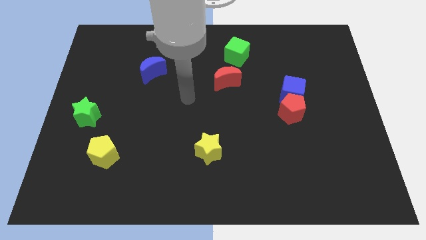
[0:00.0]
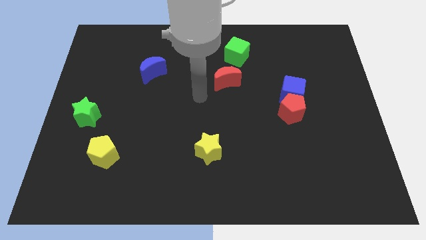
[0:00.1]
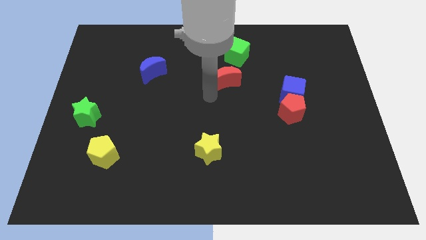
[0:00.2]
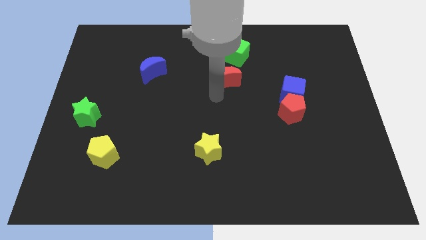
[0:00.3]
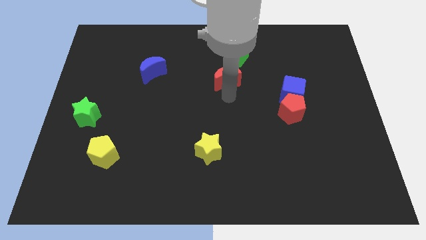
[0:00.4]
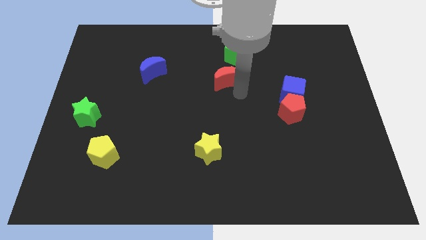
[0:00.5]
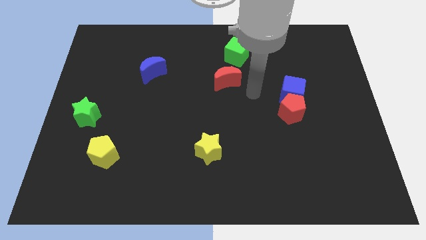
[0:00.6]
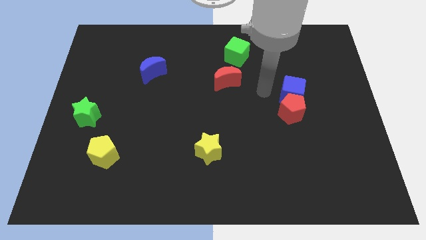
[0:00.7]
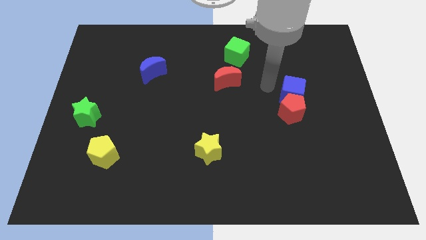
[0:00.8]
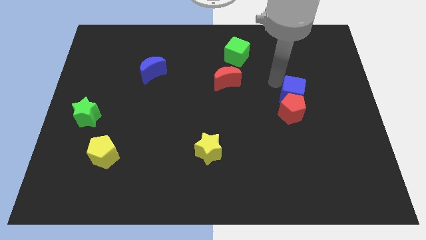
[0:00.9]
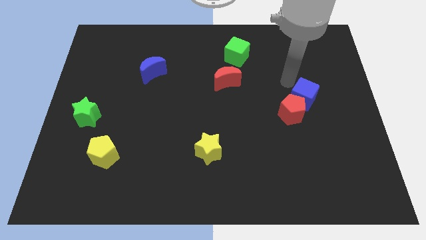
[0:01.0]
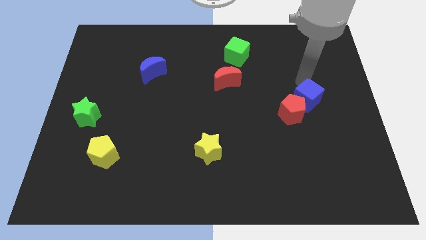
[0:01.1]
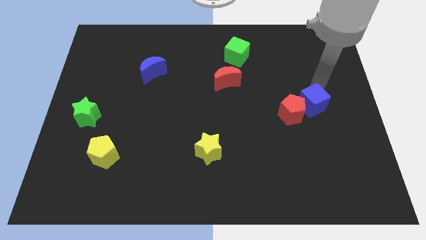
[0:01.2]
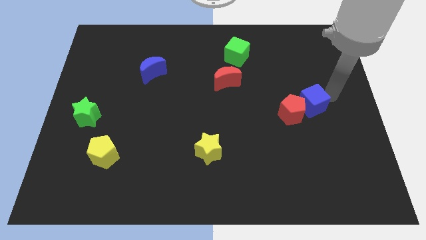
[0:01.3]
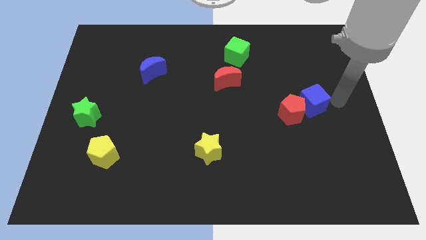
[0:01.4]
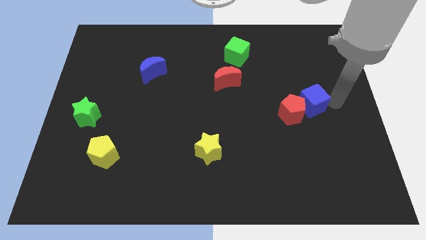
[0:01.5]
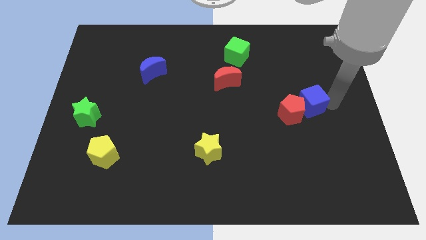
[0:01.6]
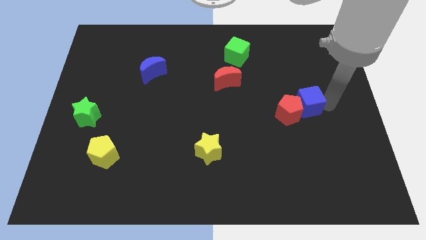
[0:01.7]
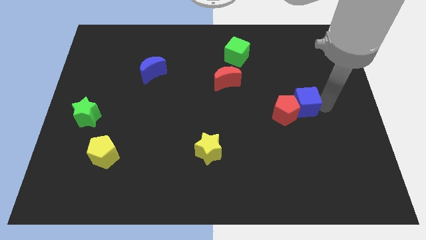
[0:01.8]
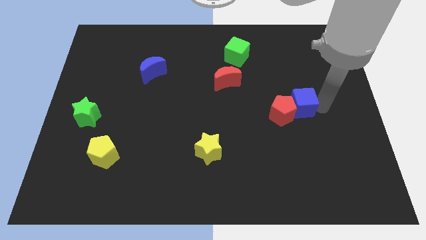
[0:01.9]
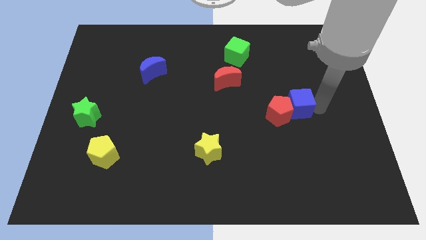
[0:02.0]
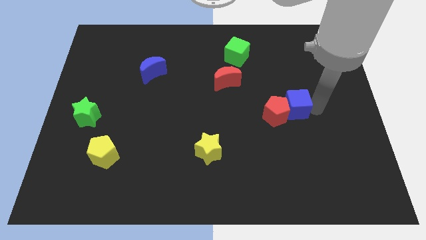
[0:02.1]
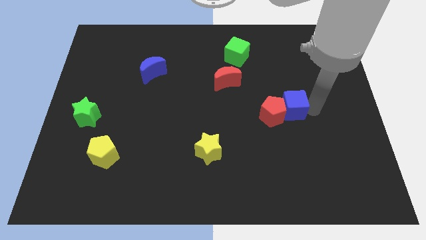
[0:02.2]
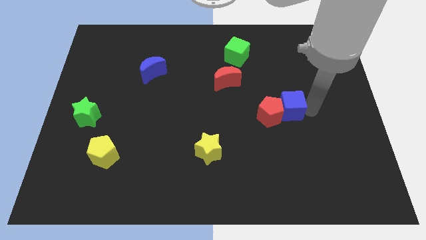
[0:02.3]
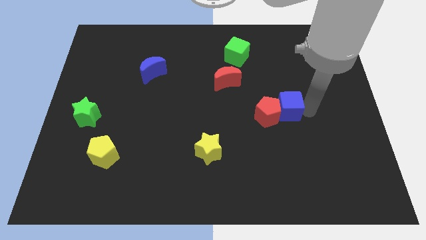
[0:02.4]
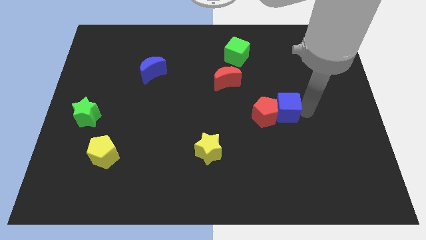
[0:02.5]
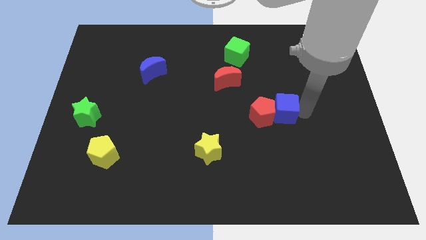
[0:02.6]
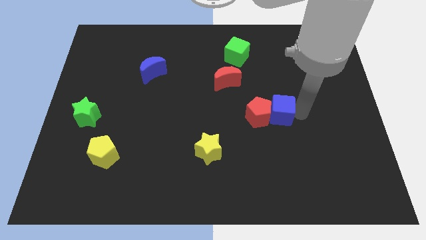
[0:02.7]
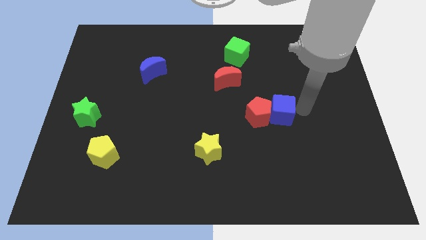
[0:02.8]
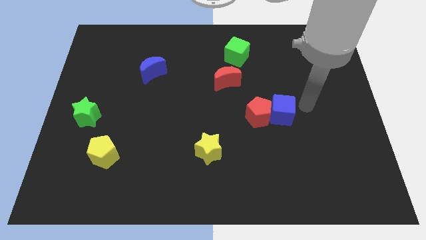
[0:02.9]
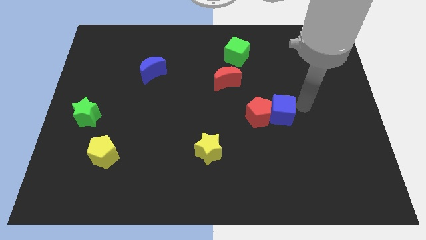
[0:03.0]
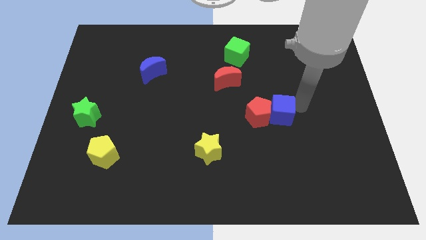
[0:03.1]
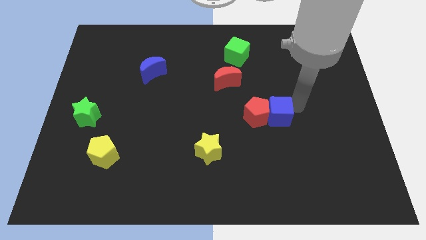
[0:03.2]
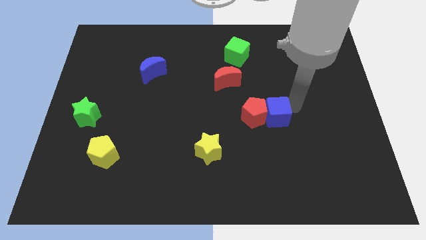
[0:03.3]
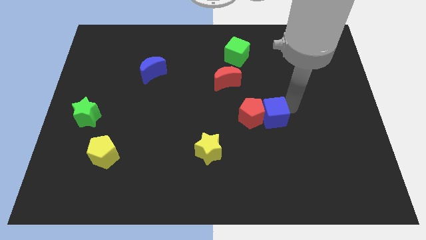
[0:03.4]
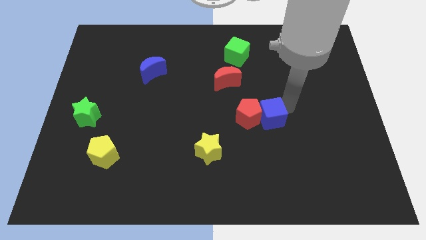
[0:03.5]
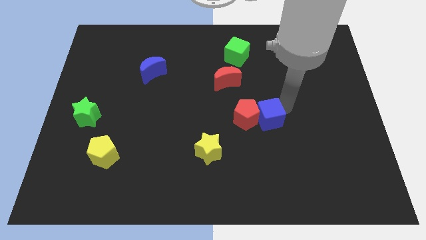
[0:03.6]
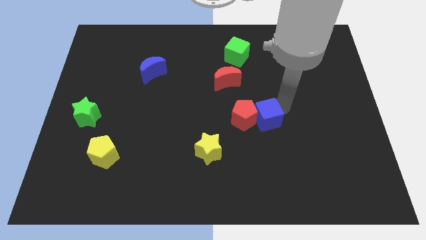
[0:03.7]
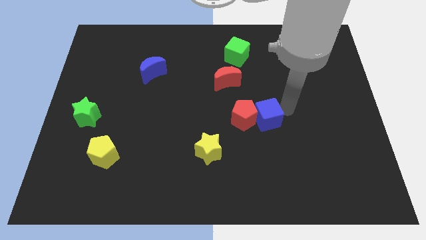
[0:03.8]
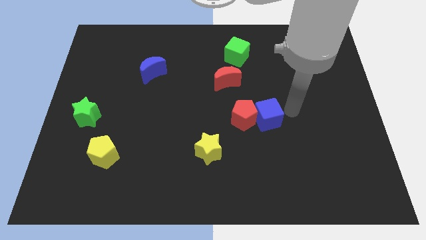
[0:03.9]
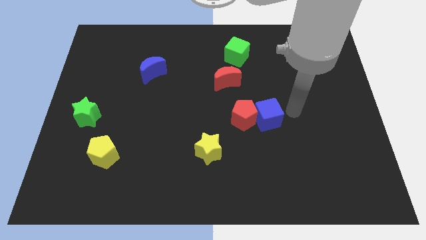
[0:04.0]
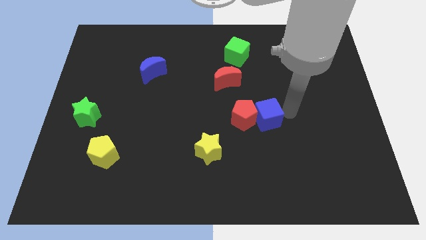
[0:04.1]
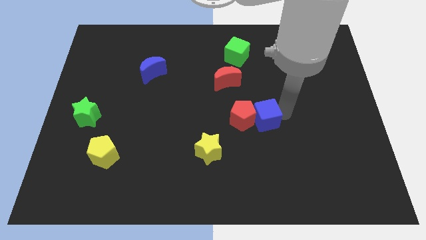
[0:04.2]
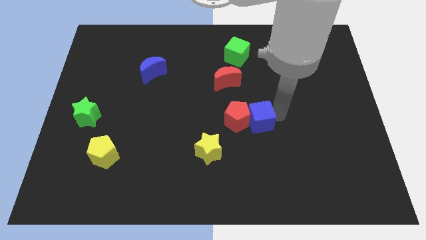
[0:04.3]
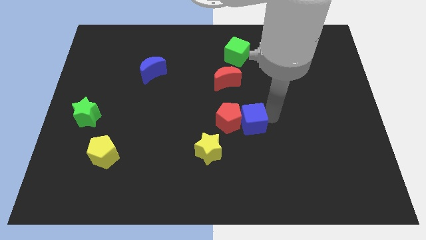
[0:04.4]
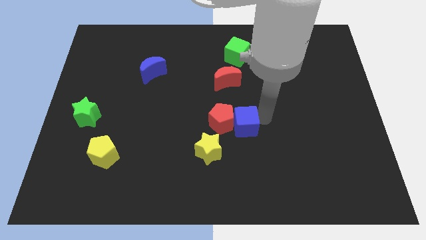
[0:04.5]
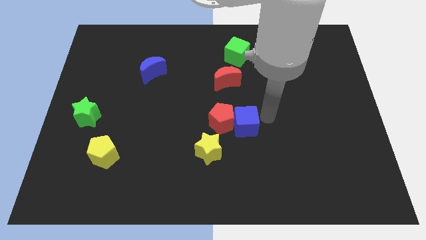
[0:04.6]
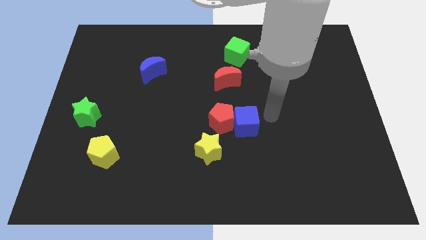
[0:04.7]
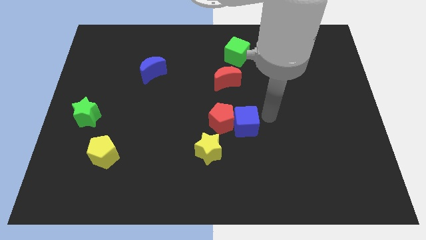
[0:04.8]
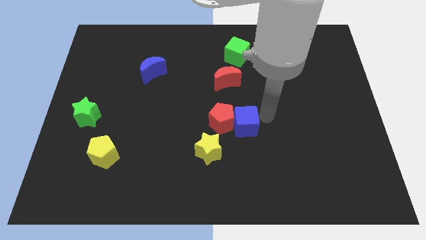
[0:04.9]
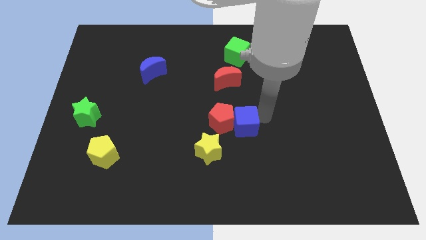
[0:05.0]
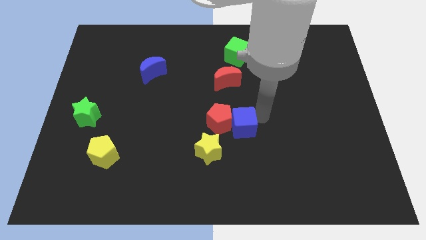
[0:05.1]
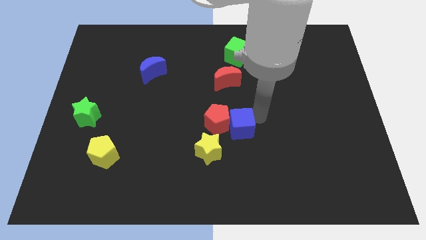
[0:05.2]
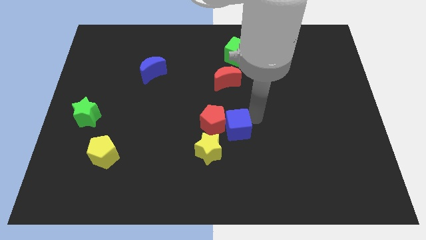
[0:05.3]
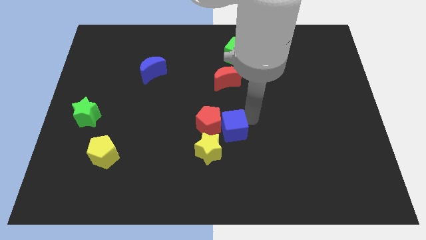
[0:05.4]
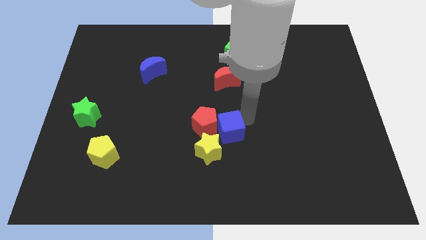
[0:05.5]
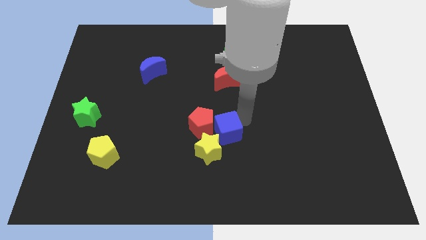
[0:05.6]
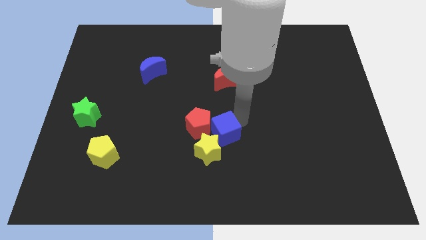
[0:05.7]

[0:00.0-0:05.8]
move the blue cube towards the yellow star

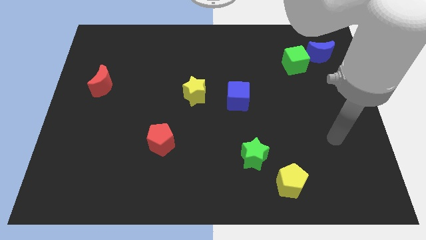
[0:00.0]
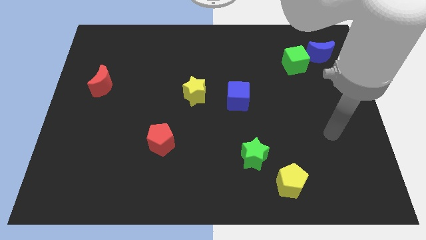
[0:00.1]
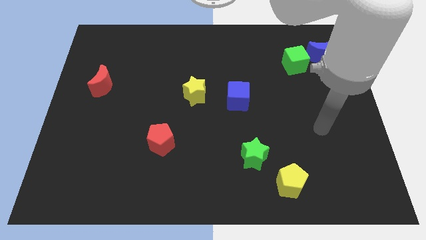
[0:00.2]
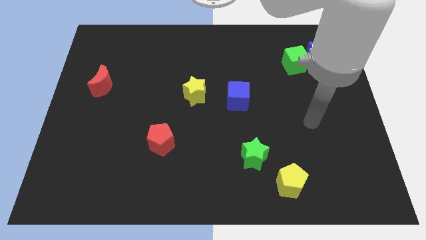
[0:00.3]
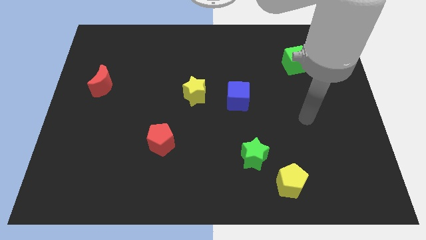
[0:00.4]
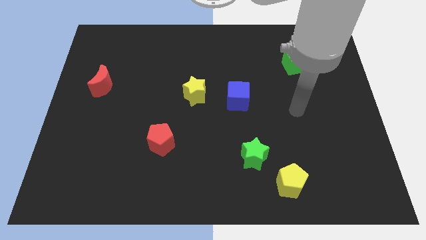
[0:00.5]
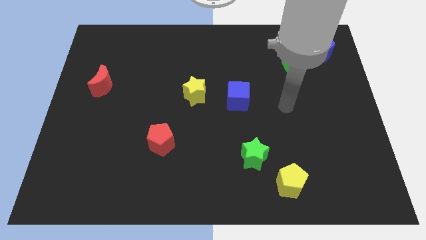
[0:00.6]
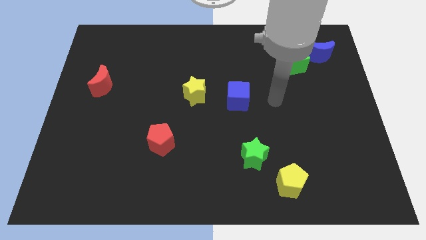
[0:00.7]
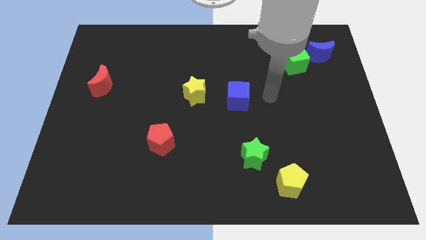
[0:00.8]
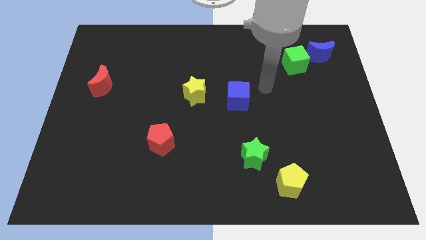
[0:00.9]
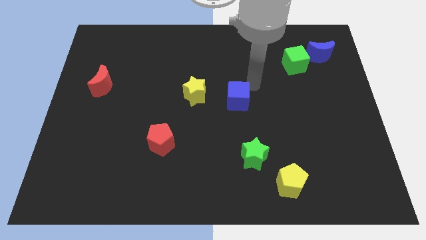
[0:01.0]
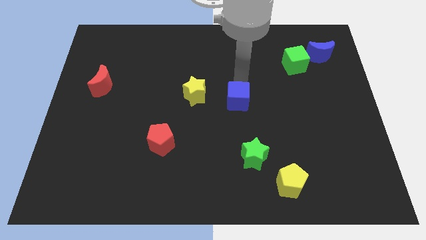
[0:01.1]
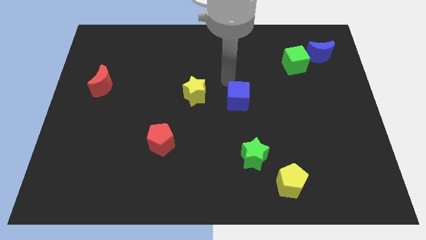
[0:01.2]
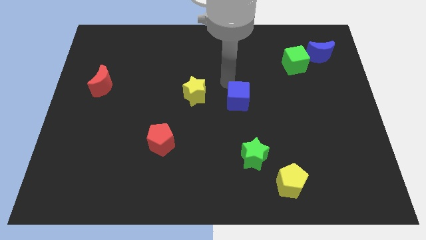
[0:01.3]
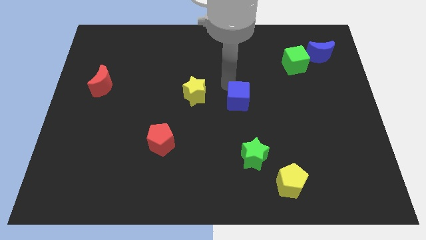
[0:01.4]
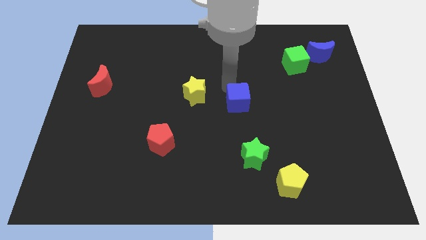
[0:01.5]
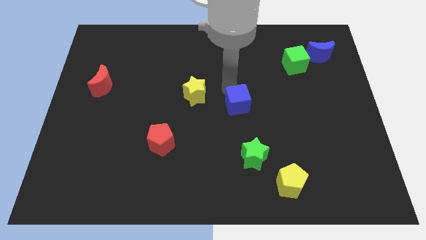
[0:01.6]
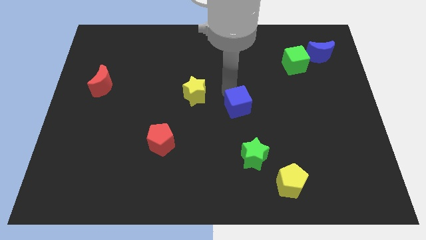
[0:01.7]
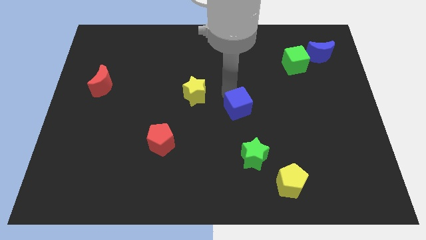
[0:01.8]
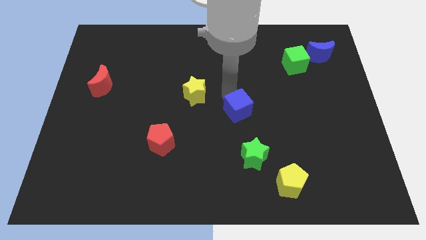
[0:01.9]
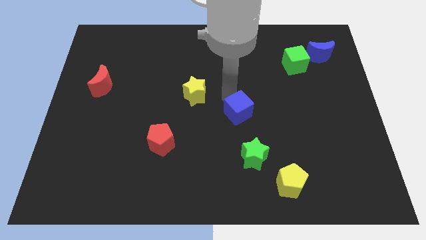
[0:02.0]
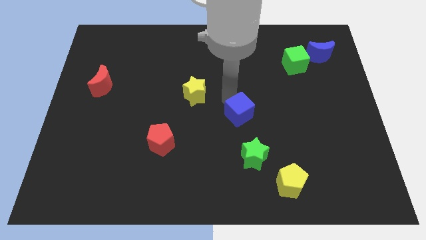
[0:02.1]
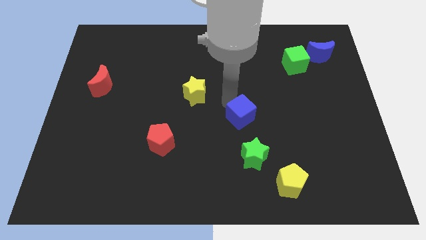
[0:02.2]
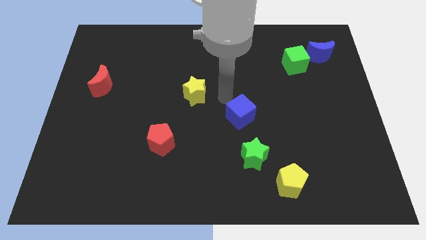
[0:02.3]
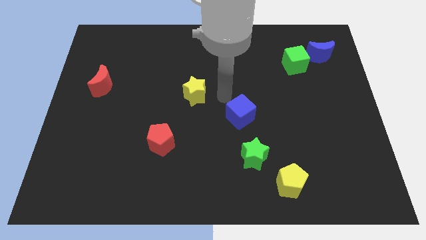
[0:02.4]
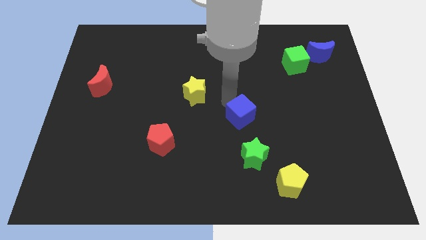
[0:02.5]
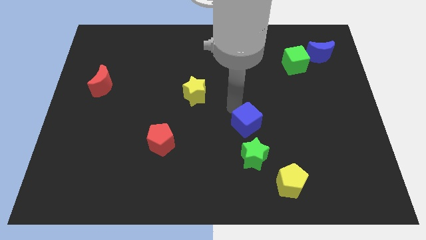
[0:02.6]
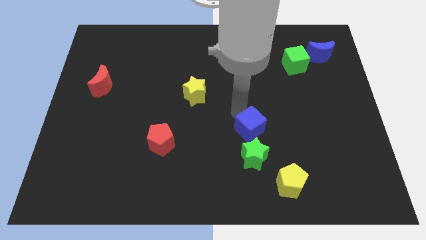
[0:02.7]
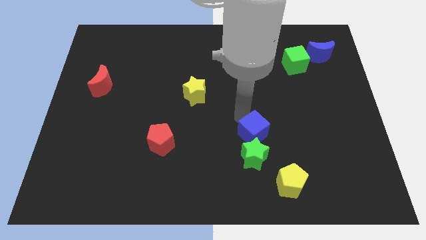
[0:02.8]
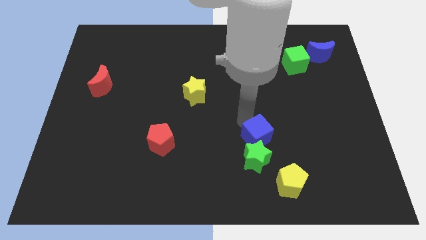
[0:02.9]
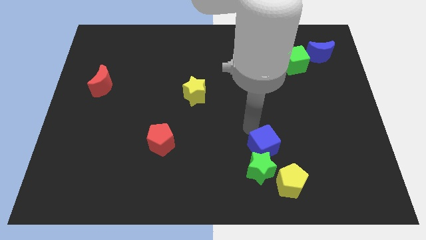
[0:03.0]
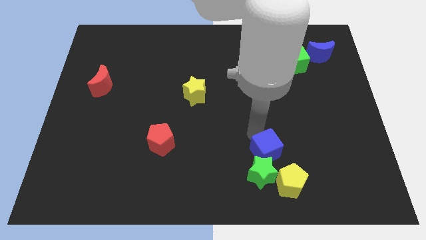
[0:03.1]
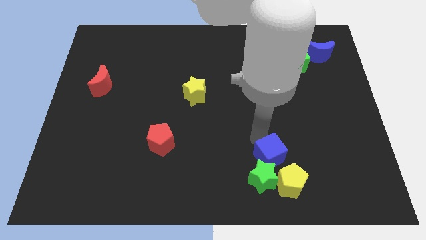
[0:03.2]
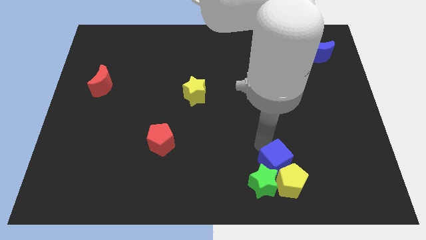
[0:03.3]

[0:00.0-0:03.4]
move the blue cube close to the yellow pentagon
